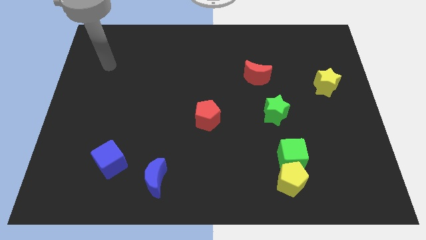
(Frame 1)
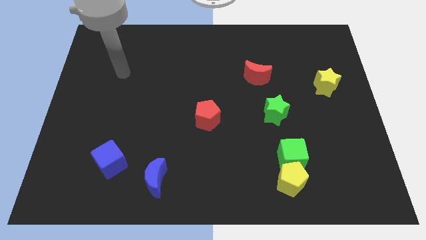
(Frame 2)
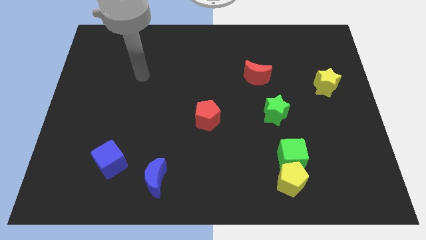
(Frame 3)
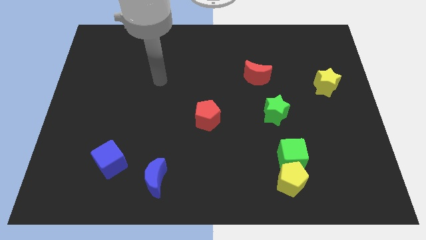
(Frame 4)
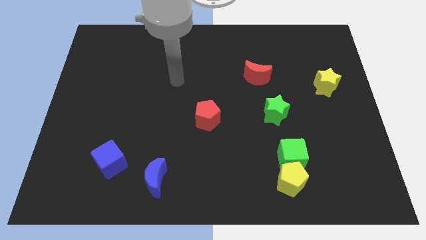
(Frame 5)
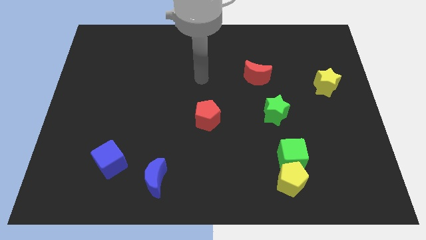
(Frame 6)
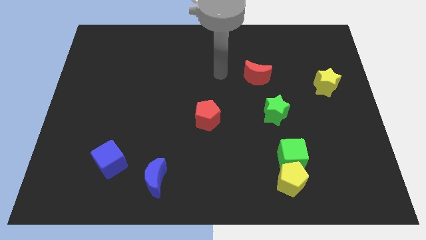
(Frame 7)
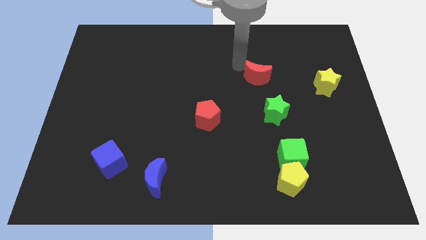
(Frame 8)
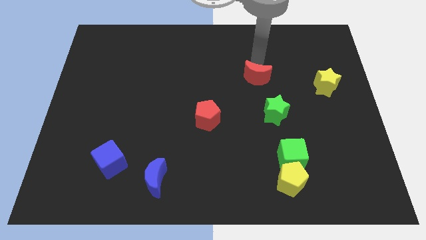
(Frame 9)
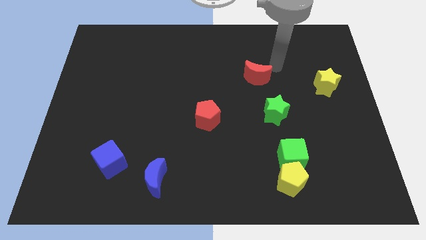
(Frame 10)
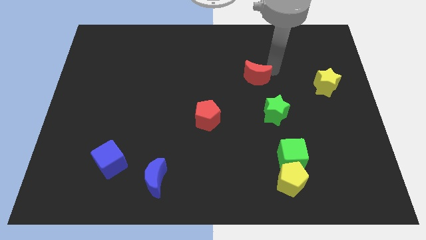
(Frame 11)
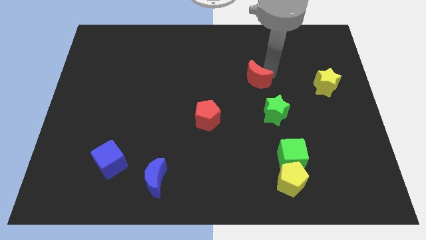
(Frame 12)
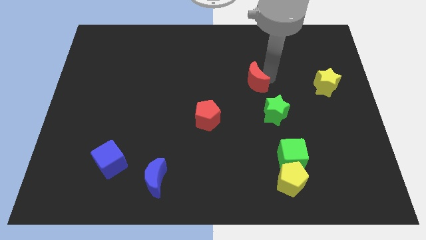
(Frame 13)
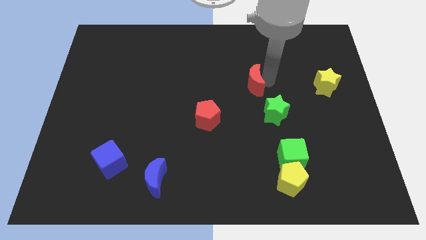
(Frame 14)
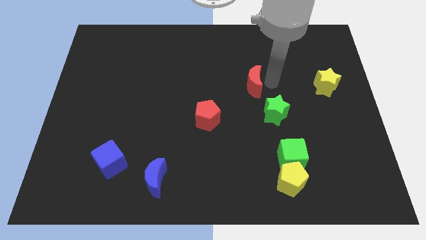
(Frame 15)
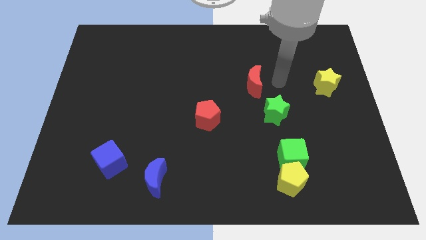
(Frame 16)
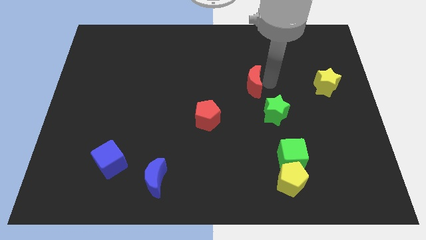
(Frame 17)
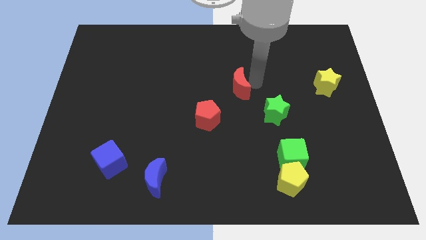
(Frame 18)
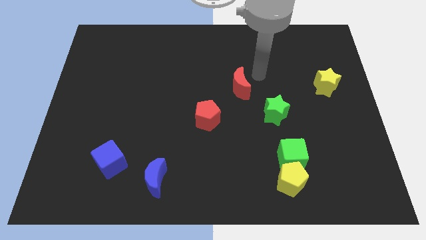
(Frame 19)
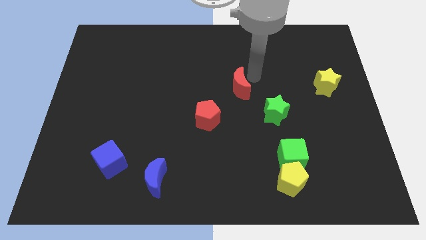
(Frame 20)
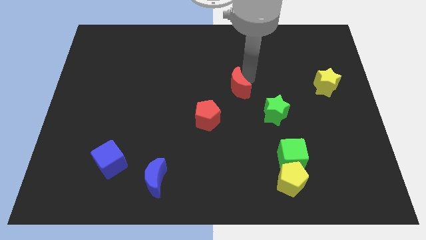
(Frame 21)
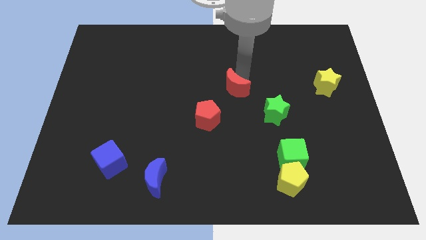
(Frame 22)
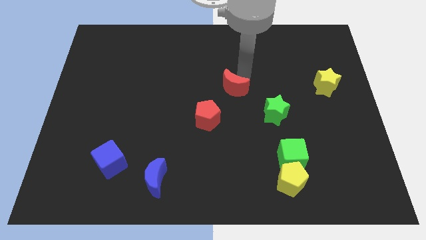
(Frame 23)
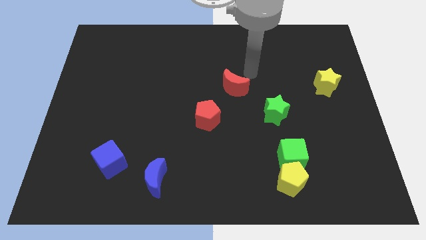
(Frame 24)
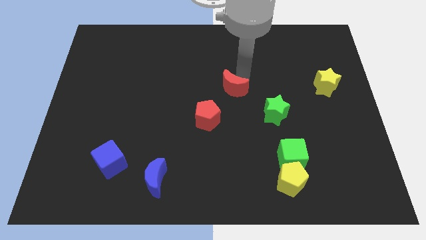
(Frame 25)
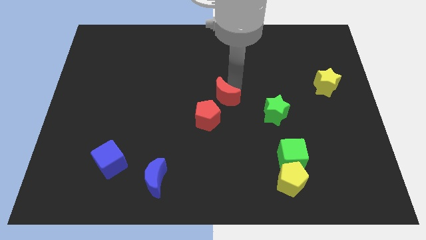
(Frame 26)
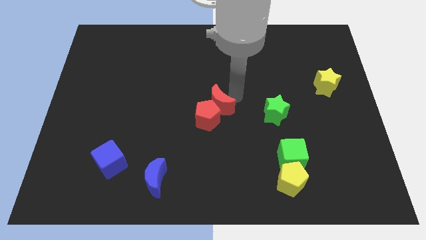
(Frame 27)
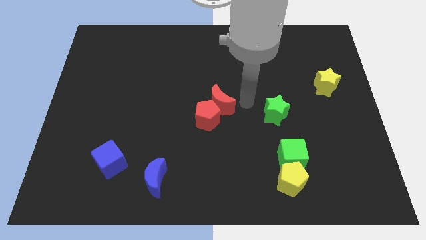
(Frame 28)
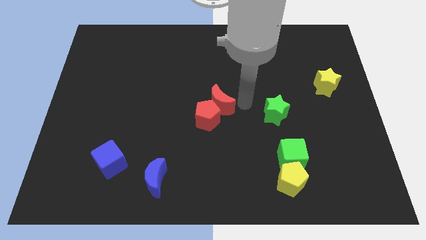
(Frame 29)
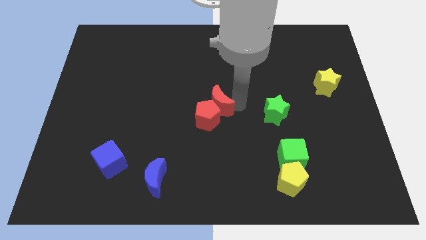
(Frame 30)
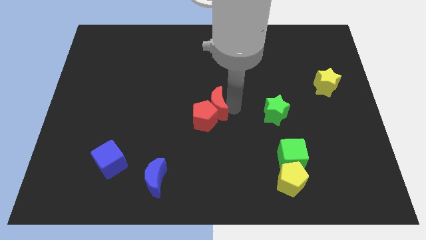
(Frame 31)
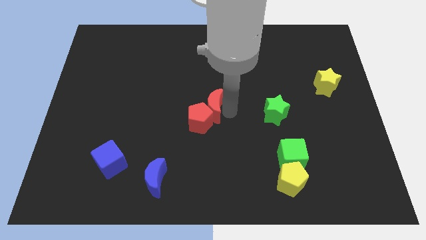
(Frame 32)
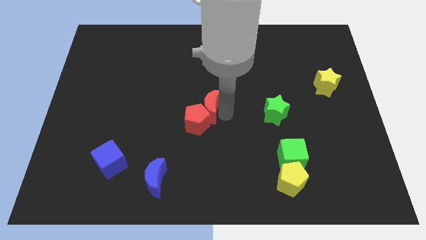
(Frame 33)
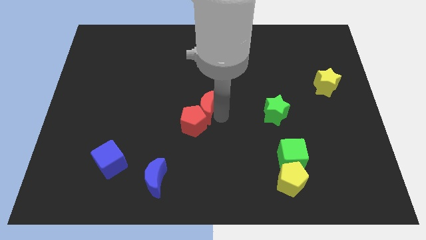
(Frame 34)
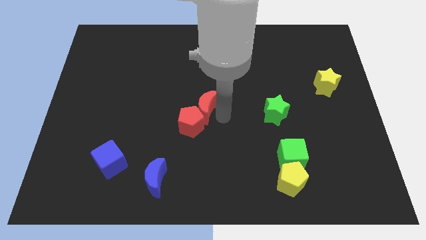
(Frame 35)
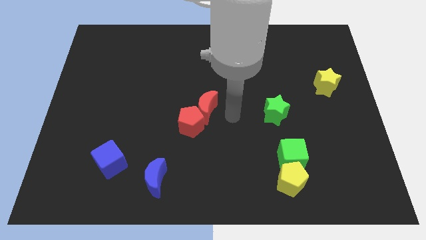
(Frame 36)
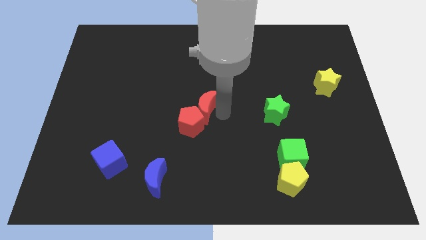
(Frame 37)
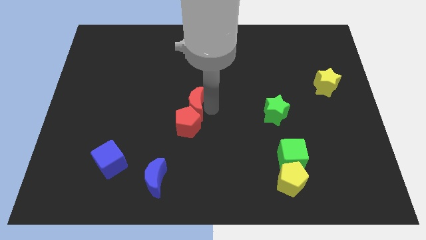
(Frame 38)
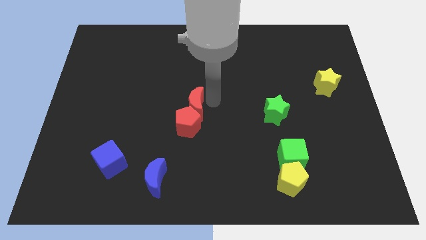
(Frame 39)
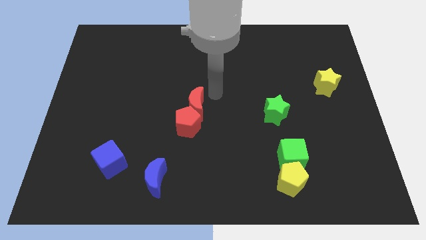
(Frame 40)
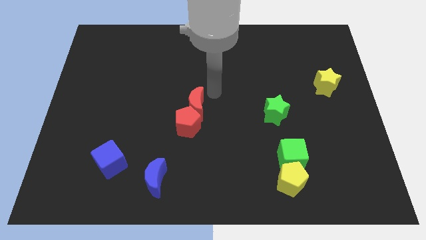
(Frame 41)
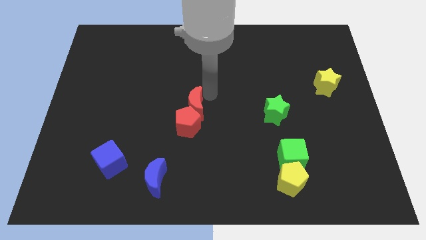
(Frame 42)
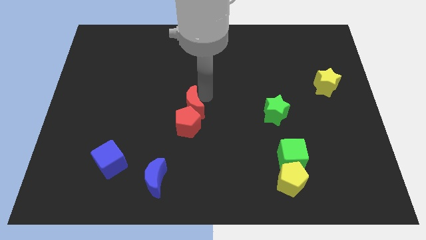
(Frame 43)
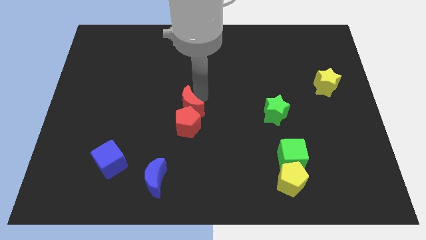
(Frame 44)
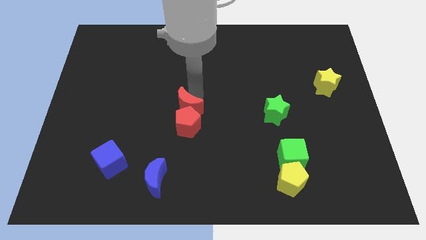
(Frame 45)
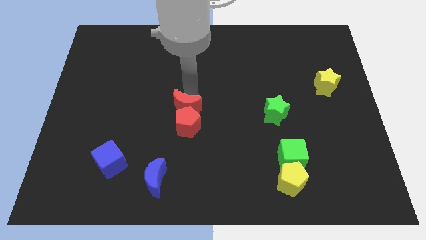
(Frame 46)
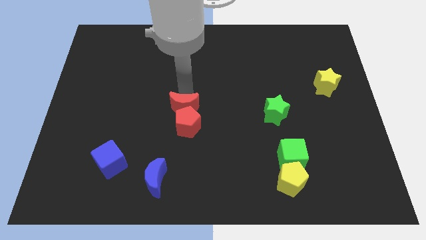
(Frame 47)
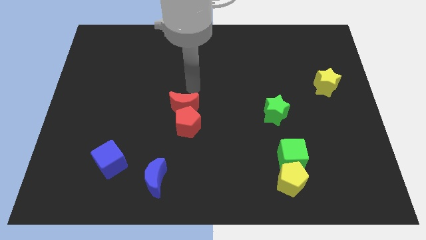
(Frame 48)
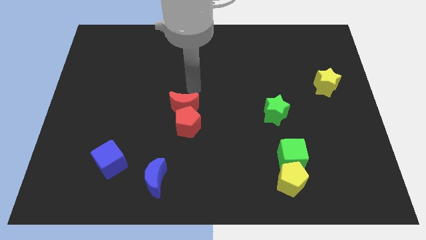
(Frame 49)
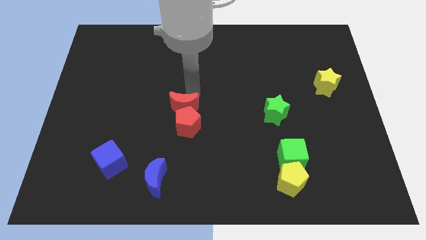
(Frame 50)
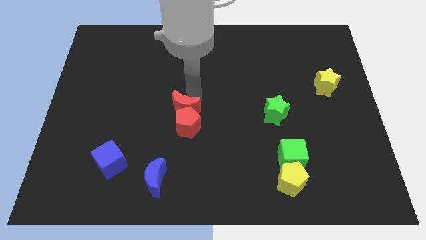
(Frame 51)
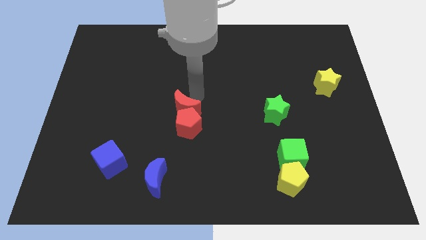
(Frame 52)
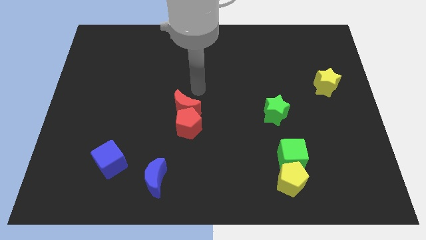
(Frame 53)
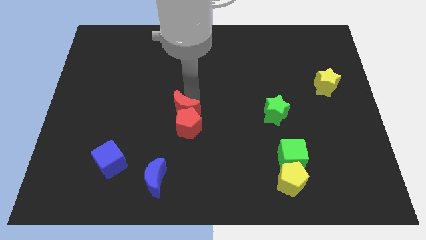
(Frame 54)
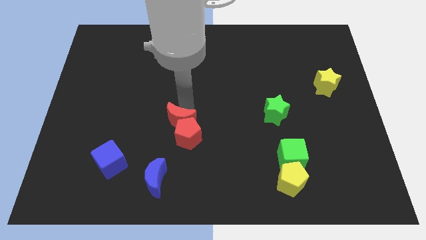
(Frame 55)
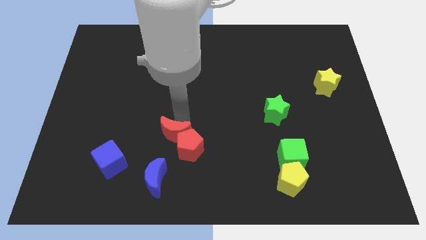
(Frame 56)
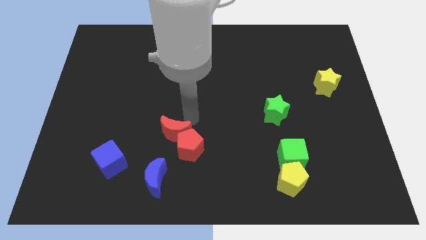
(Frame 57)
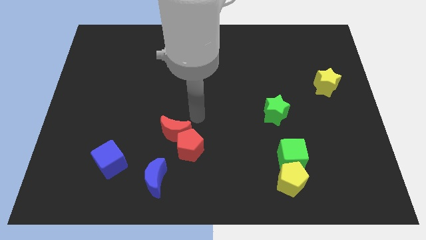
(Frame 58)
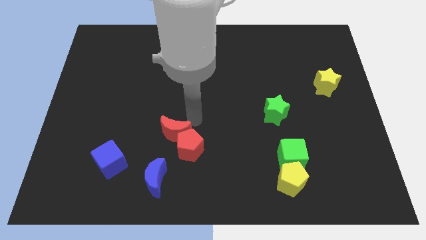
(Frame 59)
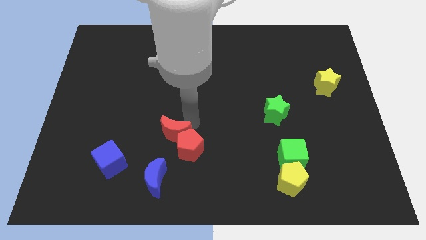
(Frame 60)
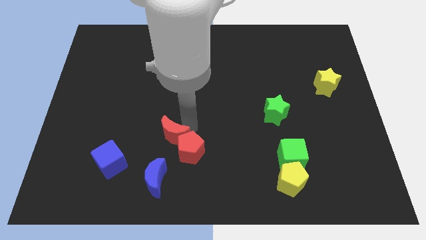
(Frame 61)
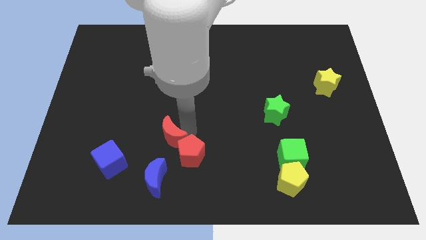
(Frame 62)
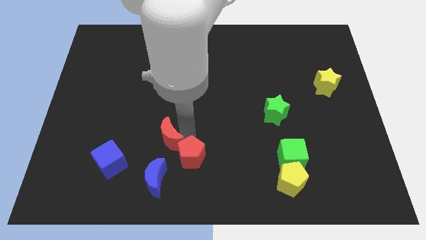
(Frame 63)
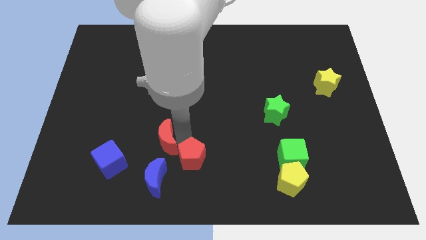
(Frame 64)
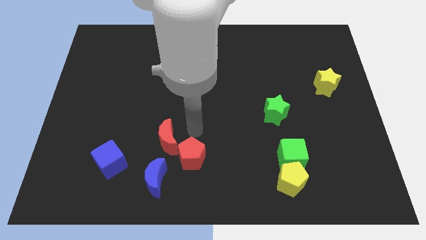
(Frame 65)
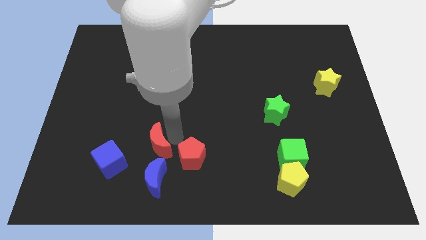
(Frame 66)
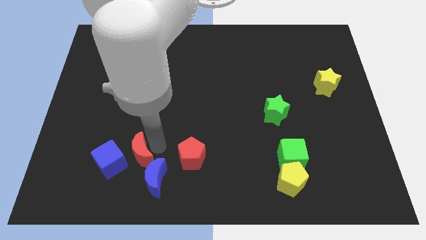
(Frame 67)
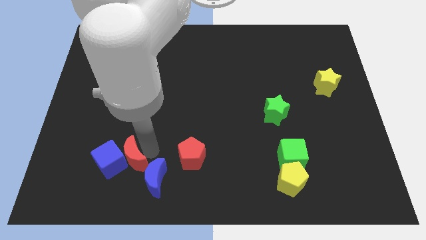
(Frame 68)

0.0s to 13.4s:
move the red moon next to the blue cube
